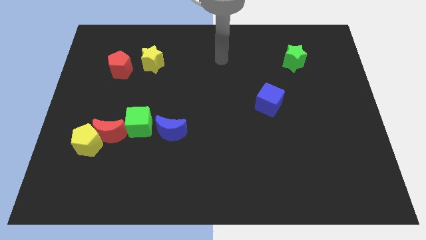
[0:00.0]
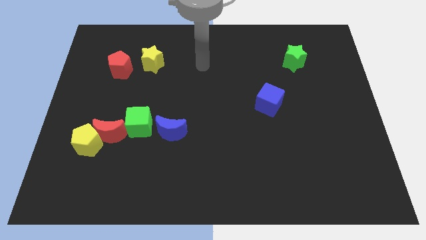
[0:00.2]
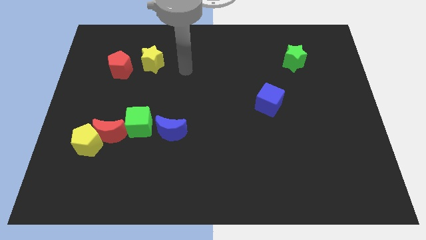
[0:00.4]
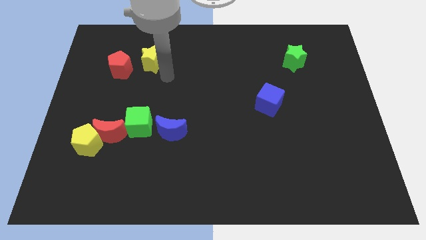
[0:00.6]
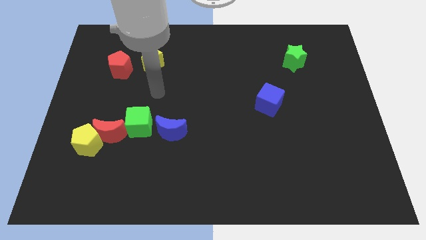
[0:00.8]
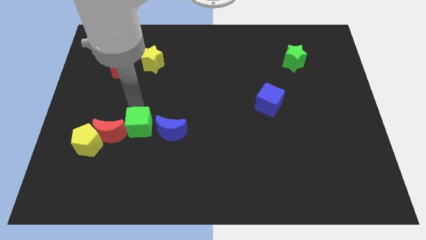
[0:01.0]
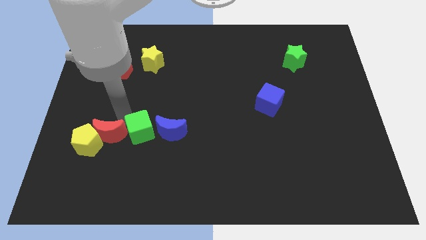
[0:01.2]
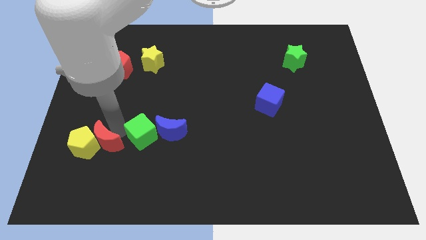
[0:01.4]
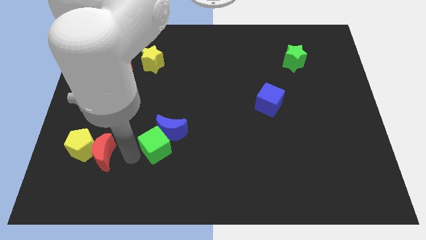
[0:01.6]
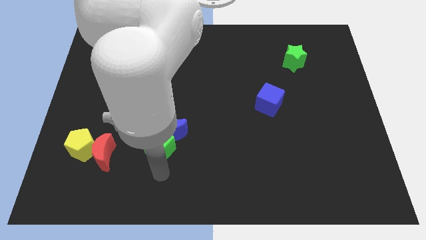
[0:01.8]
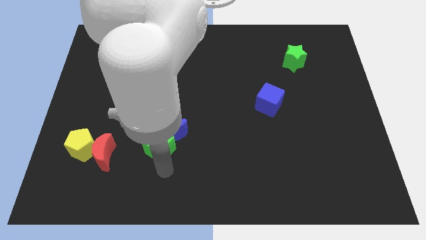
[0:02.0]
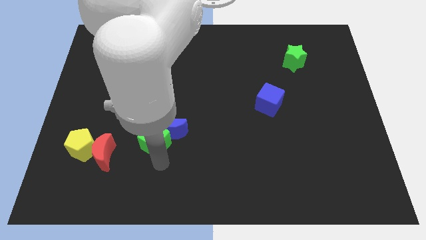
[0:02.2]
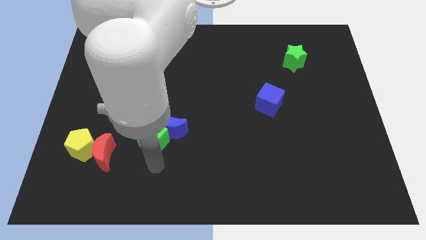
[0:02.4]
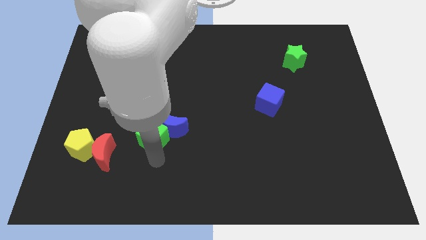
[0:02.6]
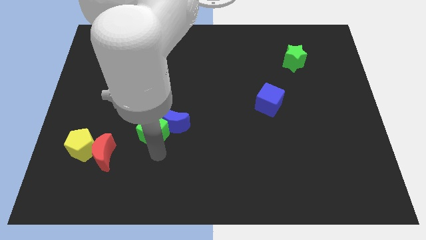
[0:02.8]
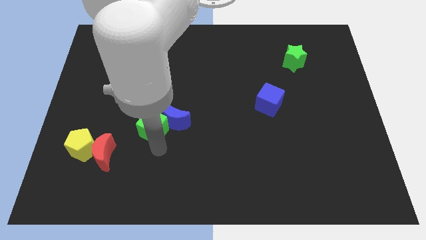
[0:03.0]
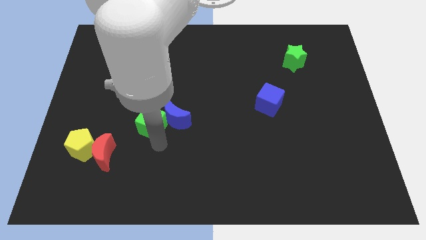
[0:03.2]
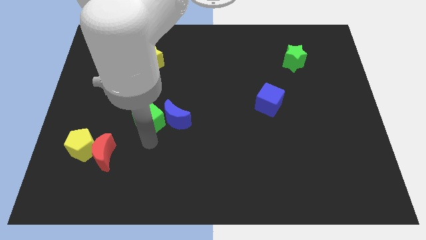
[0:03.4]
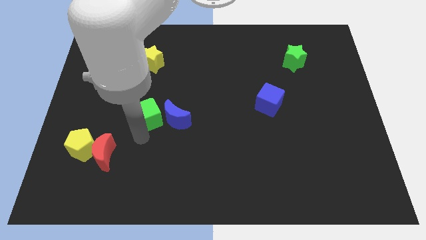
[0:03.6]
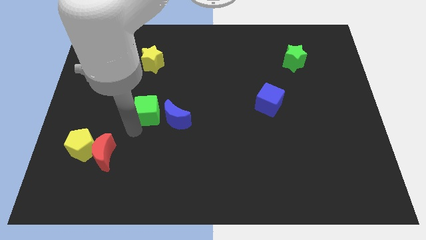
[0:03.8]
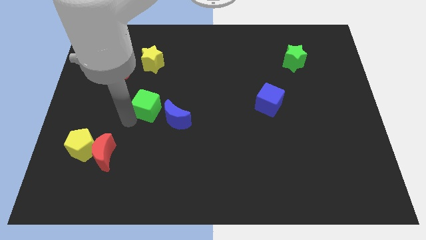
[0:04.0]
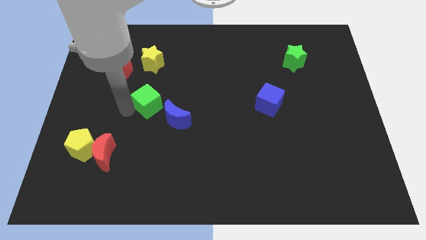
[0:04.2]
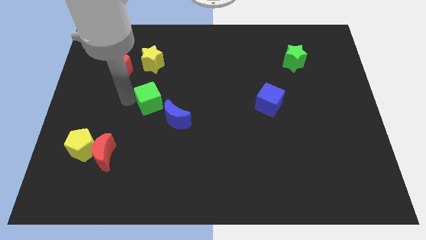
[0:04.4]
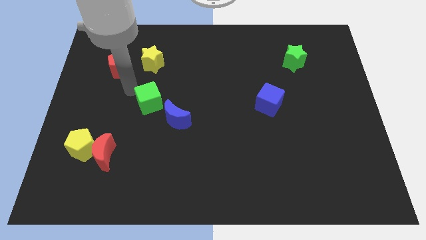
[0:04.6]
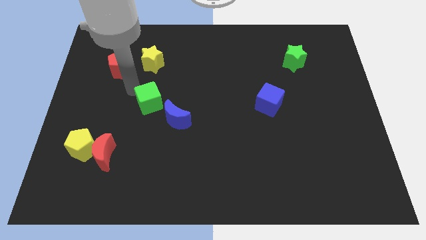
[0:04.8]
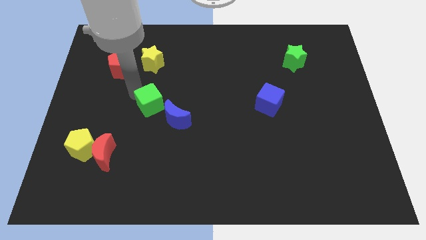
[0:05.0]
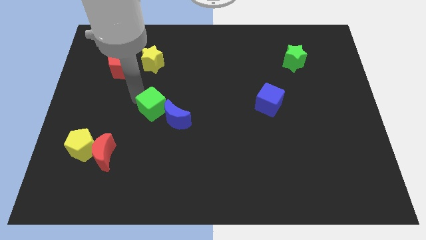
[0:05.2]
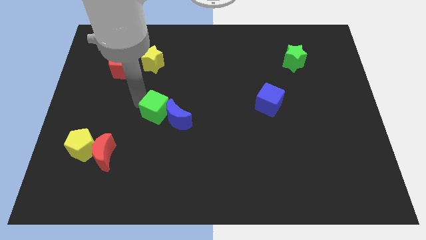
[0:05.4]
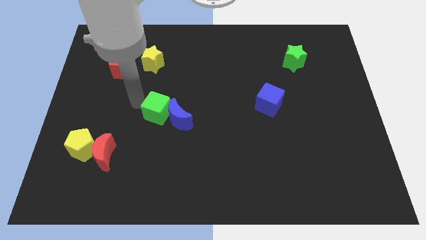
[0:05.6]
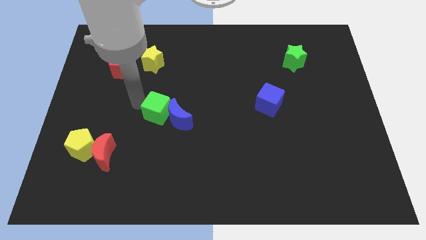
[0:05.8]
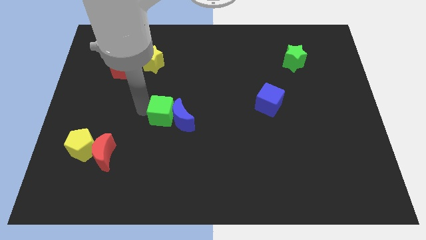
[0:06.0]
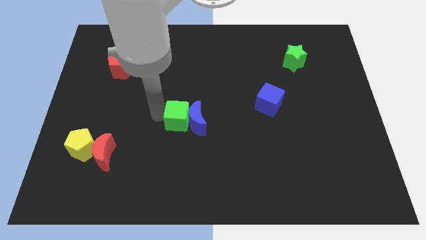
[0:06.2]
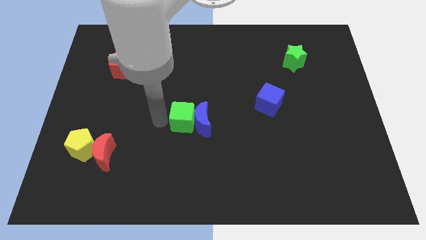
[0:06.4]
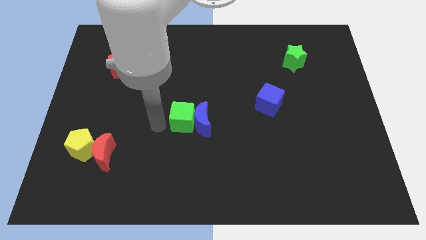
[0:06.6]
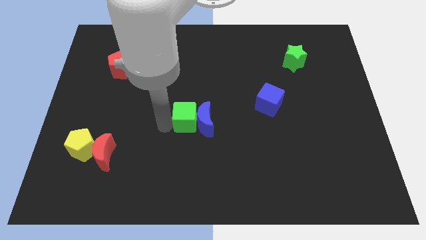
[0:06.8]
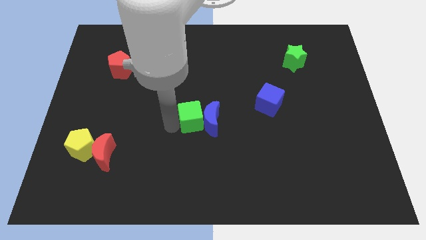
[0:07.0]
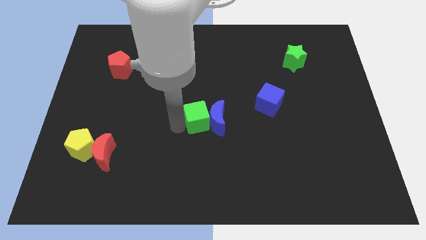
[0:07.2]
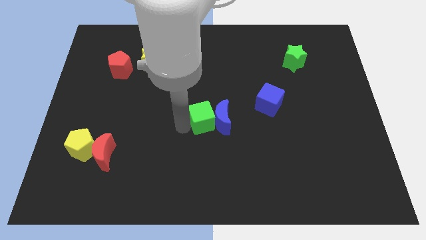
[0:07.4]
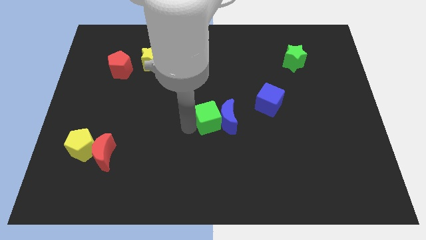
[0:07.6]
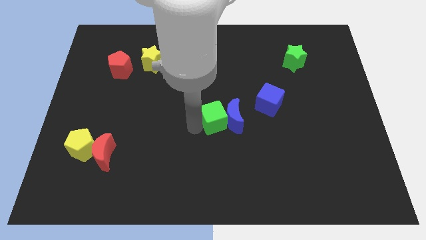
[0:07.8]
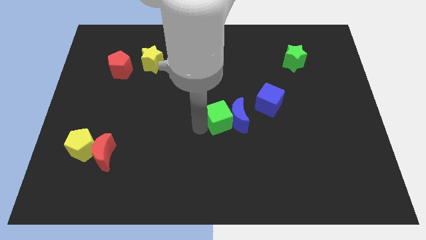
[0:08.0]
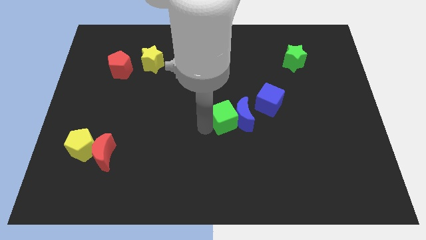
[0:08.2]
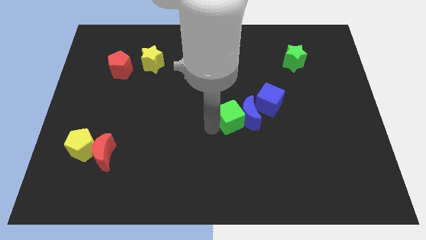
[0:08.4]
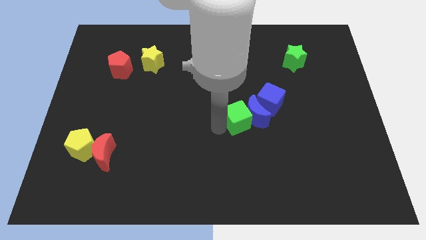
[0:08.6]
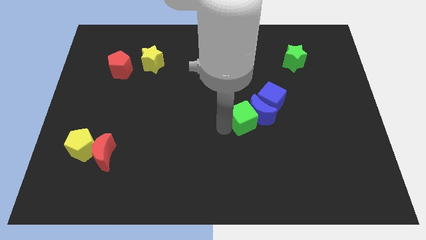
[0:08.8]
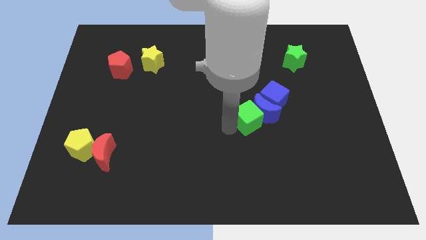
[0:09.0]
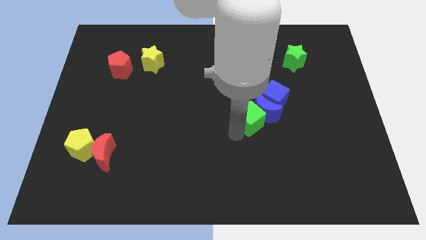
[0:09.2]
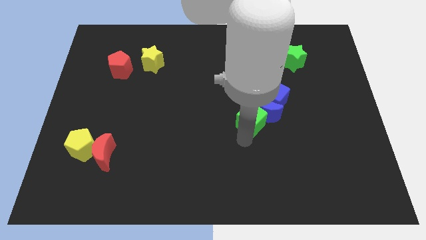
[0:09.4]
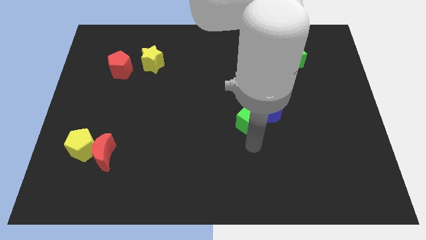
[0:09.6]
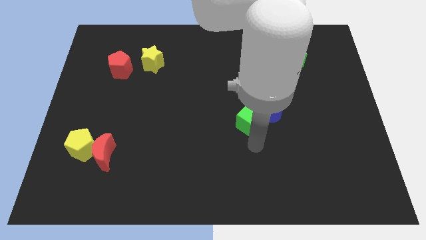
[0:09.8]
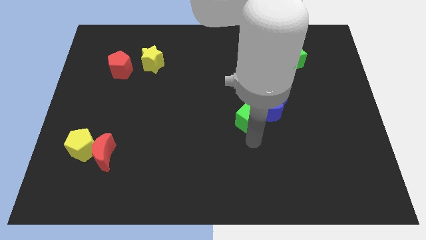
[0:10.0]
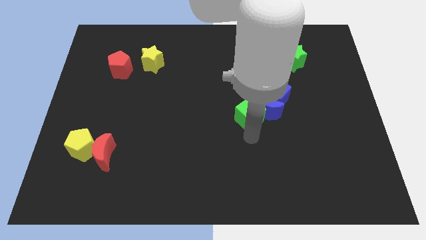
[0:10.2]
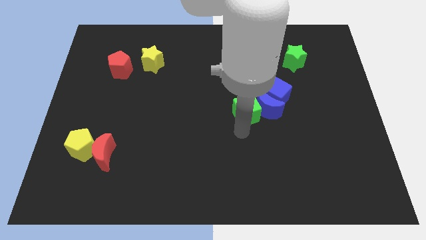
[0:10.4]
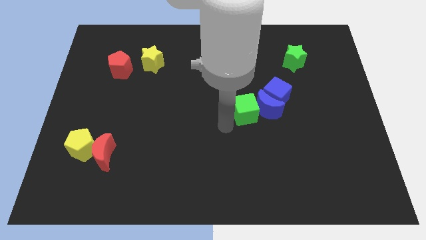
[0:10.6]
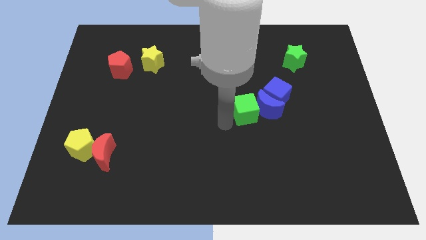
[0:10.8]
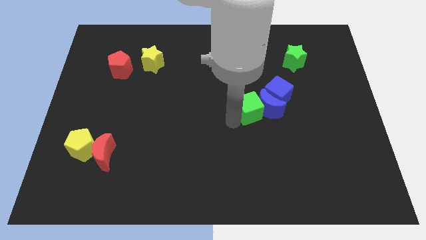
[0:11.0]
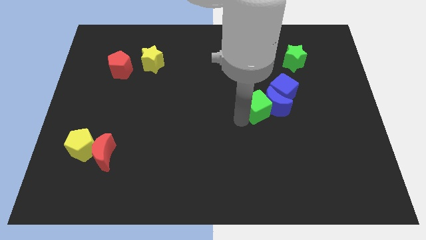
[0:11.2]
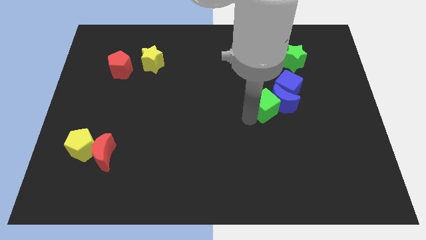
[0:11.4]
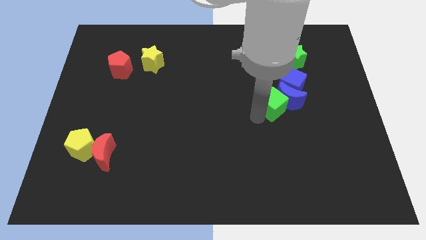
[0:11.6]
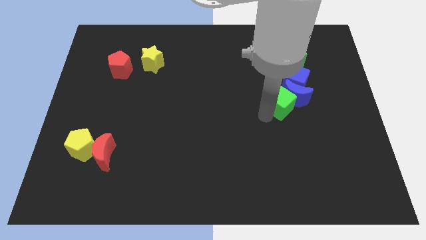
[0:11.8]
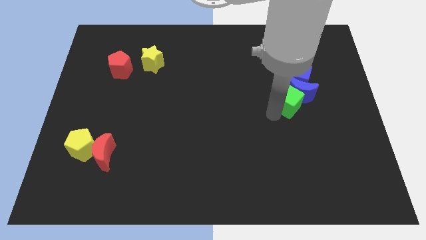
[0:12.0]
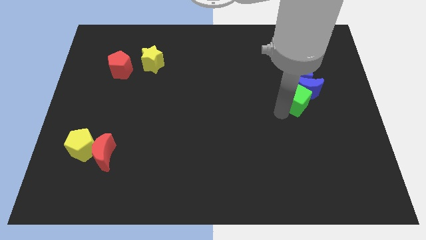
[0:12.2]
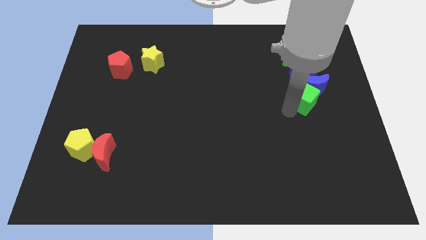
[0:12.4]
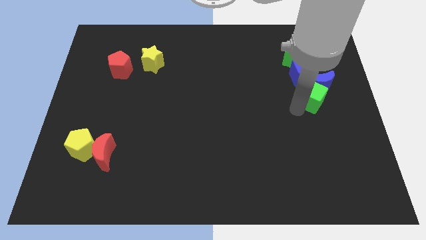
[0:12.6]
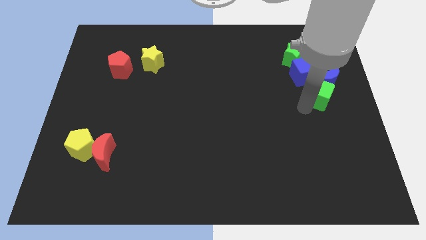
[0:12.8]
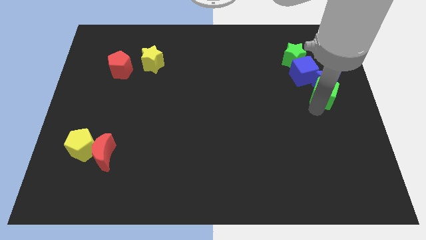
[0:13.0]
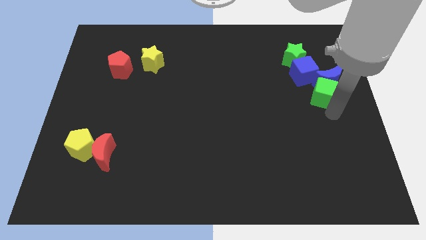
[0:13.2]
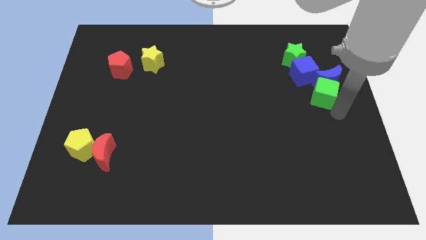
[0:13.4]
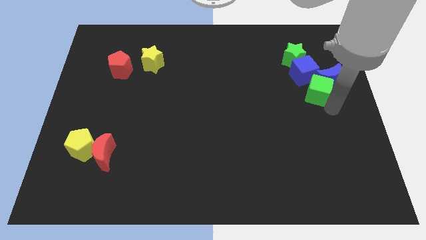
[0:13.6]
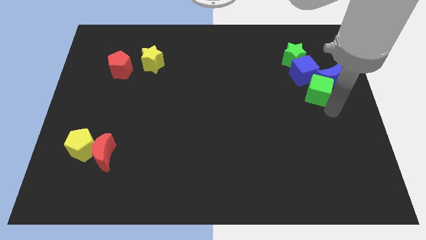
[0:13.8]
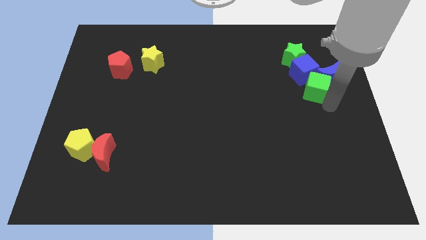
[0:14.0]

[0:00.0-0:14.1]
put the green cube towards the blue cube

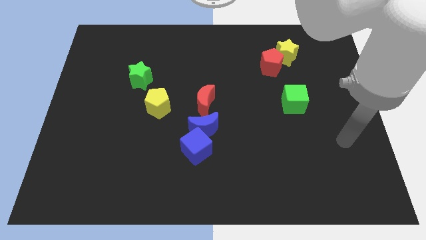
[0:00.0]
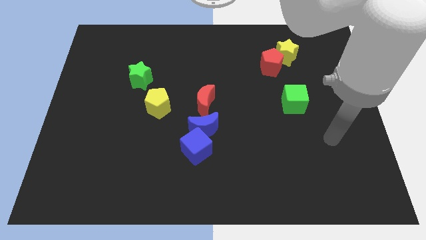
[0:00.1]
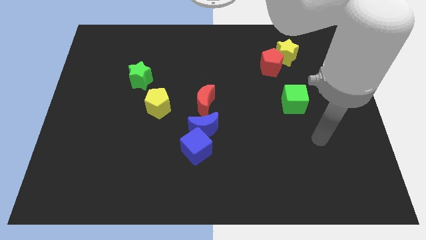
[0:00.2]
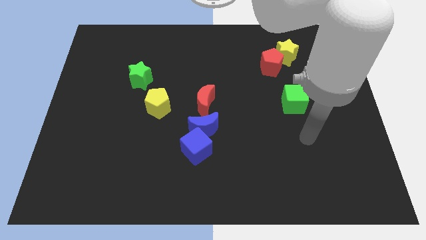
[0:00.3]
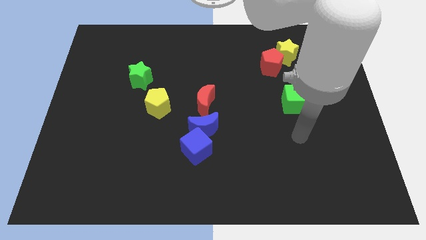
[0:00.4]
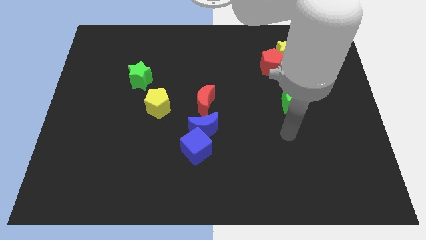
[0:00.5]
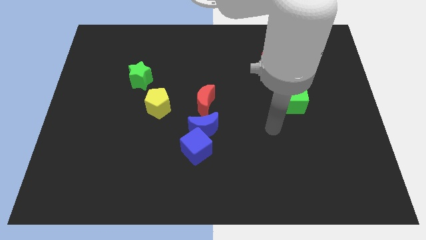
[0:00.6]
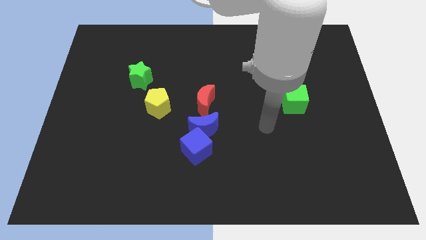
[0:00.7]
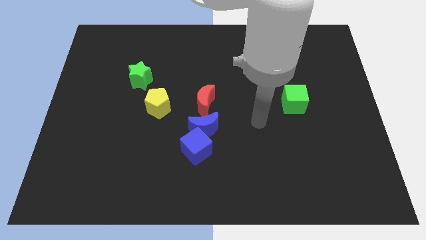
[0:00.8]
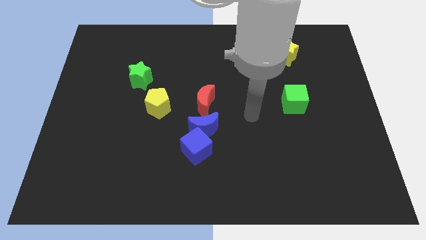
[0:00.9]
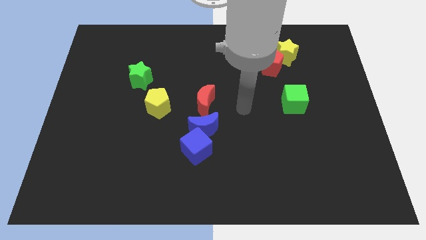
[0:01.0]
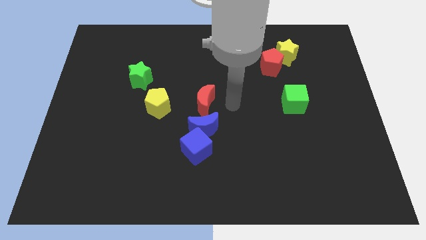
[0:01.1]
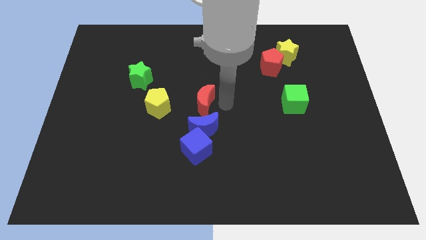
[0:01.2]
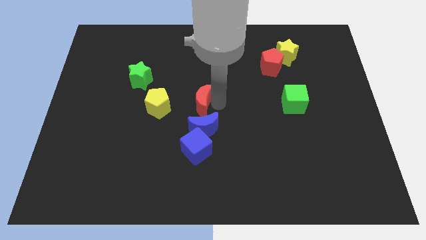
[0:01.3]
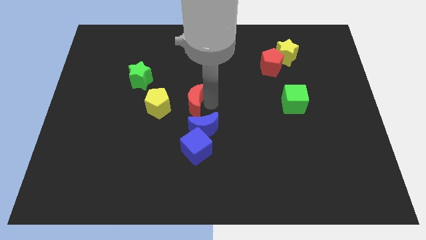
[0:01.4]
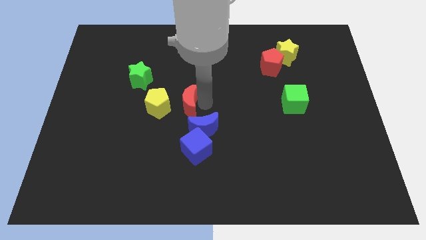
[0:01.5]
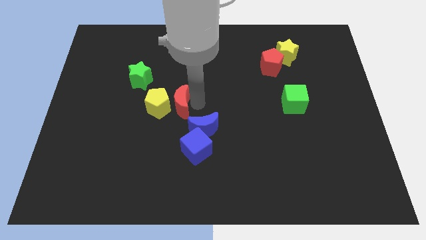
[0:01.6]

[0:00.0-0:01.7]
put the red moon next to the yellow pentagon
